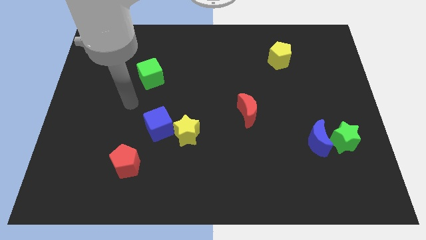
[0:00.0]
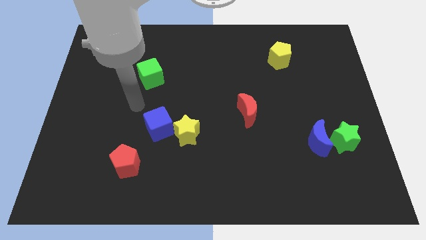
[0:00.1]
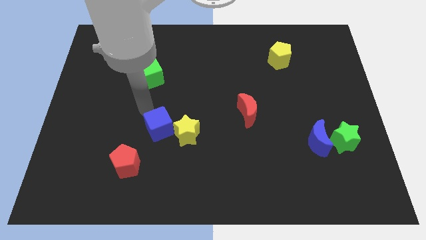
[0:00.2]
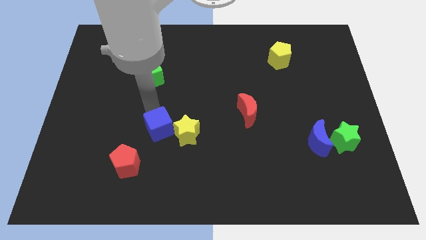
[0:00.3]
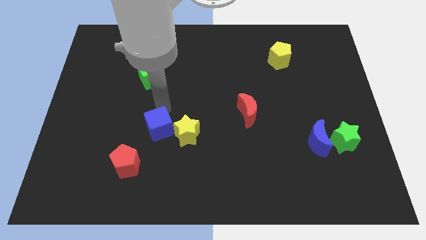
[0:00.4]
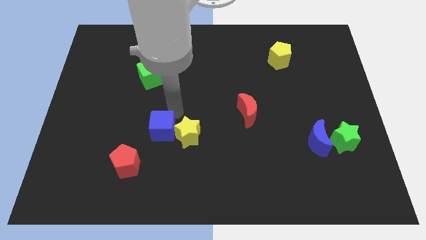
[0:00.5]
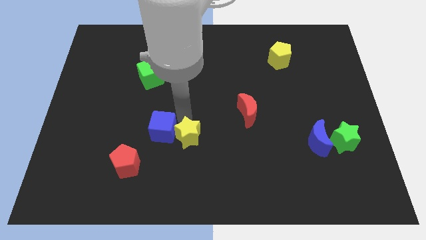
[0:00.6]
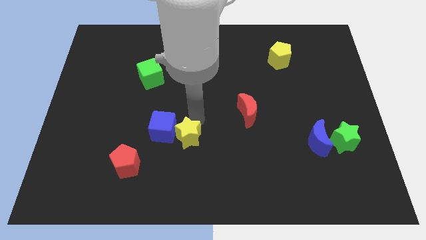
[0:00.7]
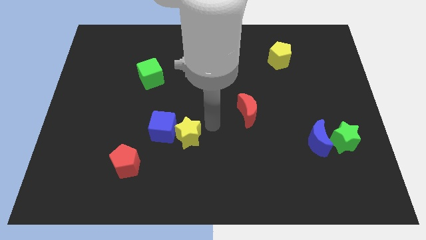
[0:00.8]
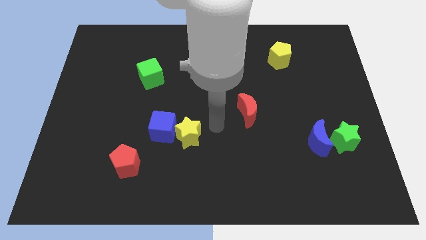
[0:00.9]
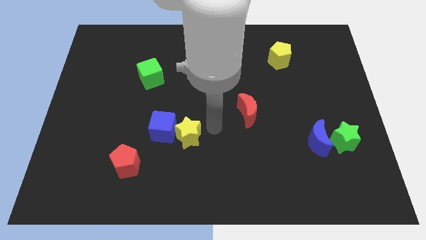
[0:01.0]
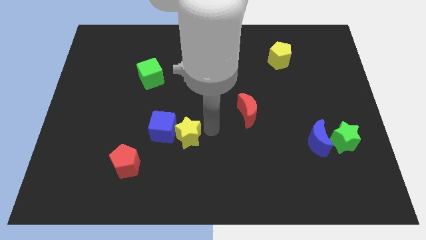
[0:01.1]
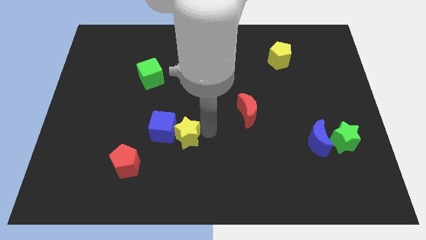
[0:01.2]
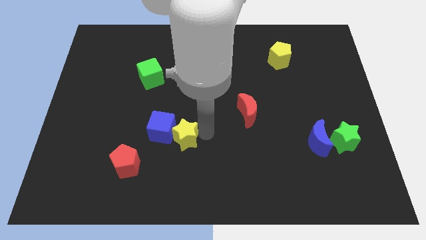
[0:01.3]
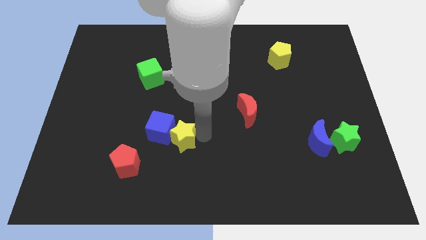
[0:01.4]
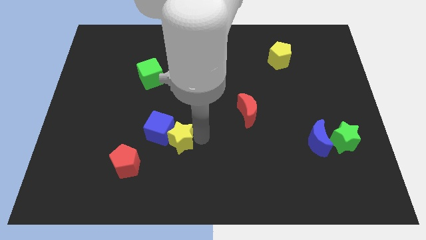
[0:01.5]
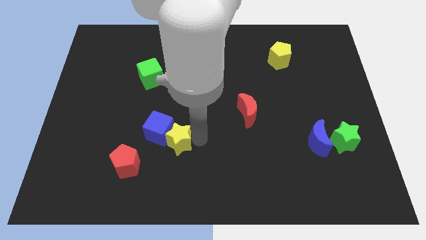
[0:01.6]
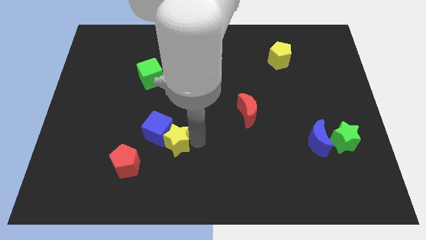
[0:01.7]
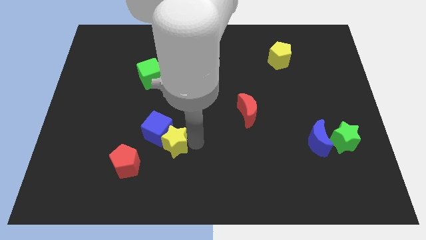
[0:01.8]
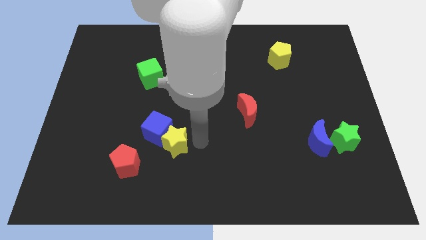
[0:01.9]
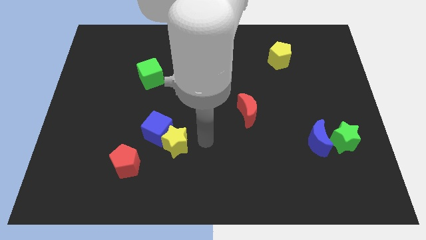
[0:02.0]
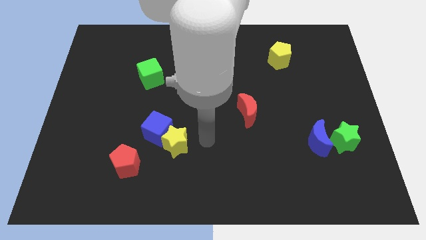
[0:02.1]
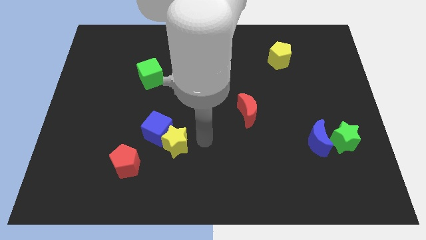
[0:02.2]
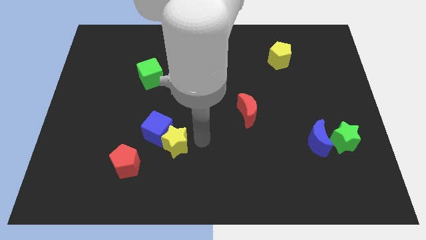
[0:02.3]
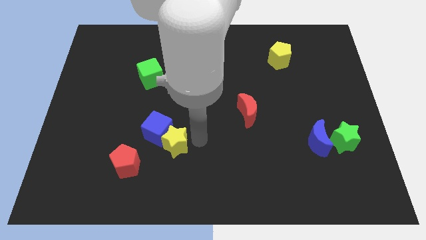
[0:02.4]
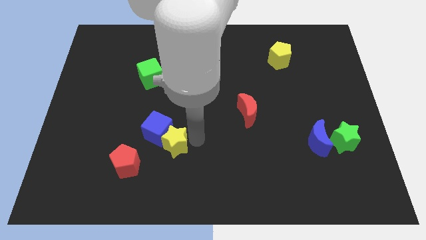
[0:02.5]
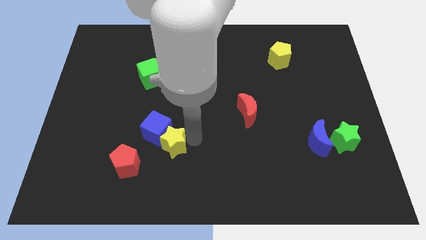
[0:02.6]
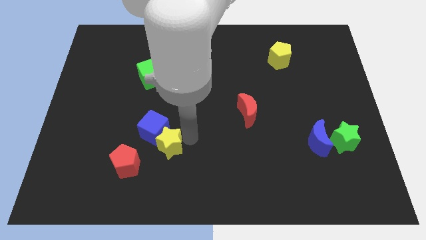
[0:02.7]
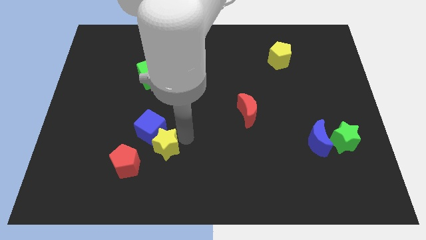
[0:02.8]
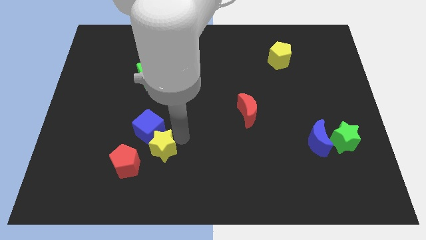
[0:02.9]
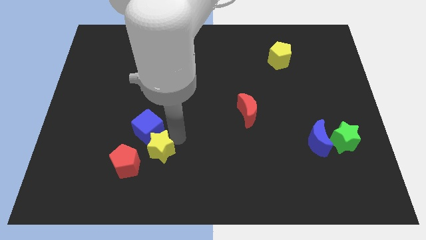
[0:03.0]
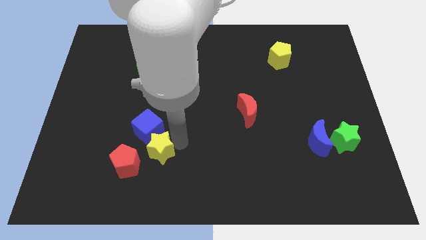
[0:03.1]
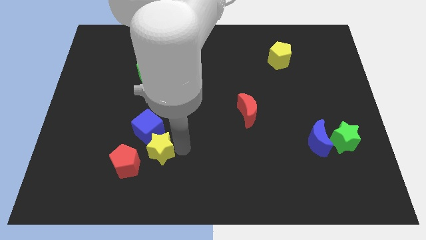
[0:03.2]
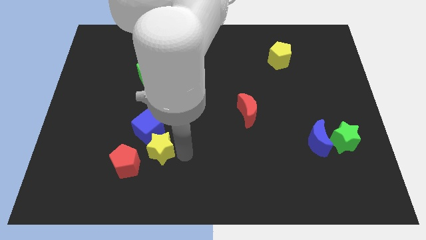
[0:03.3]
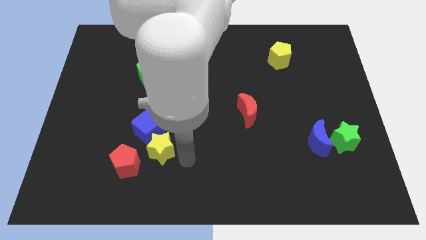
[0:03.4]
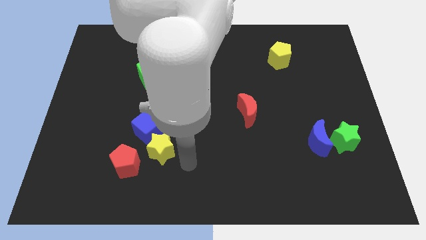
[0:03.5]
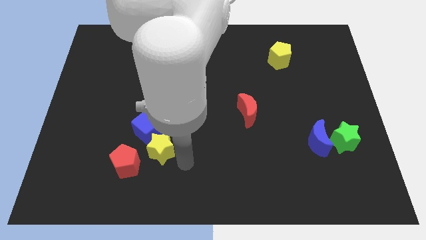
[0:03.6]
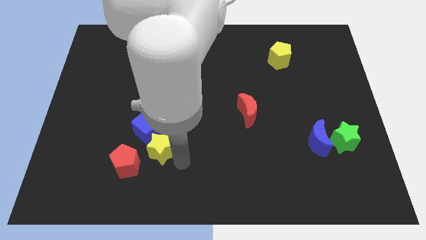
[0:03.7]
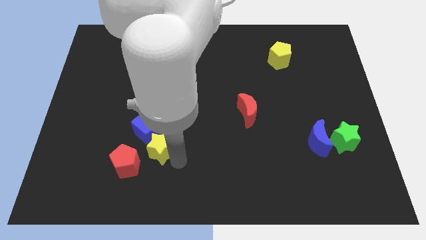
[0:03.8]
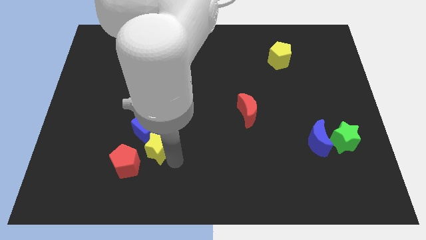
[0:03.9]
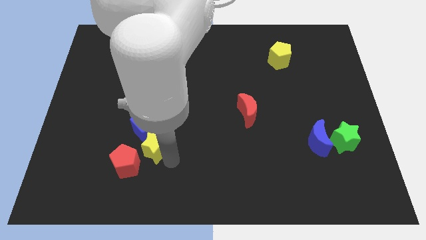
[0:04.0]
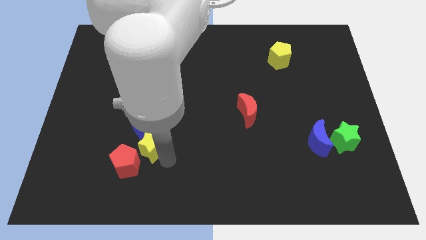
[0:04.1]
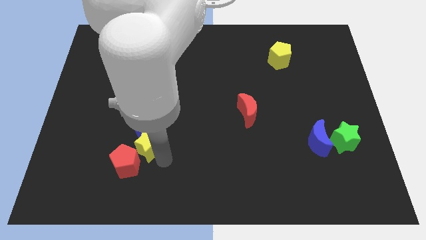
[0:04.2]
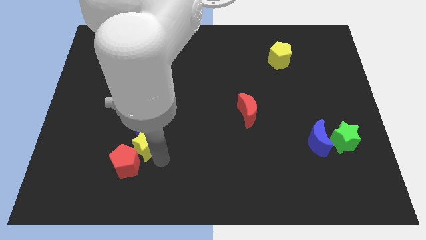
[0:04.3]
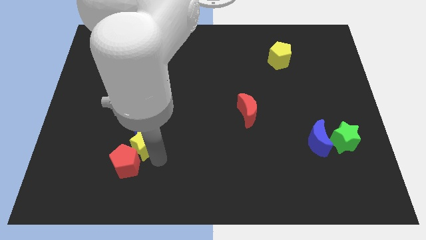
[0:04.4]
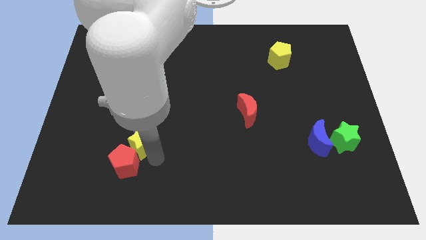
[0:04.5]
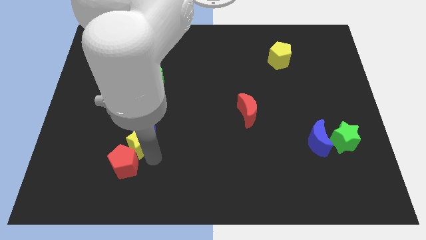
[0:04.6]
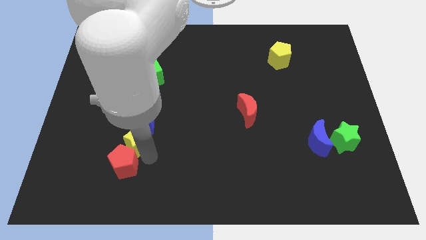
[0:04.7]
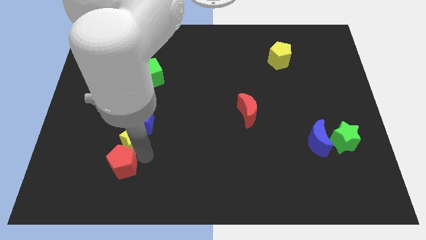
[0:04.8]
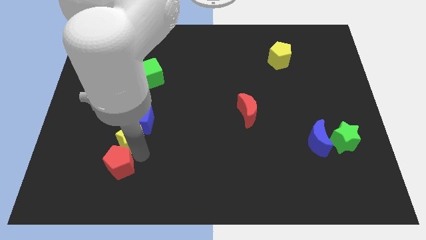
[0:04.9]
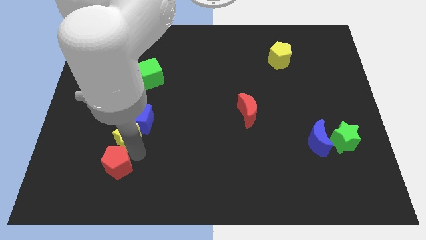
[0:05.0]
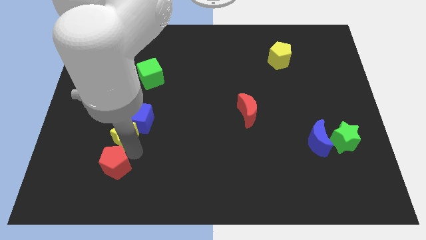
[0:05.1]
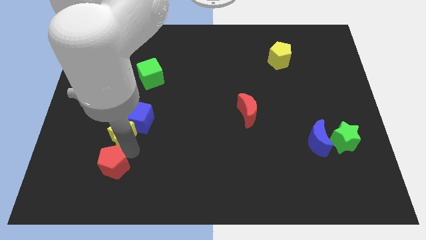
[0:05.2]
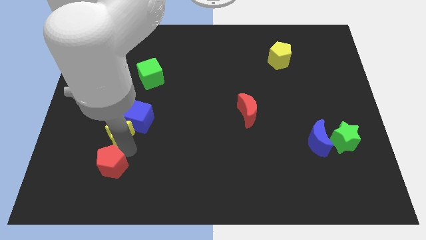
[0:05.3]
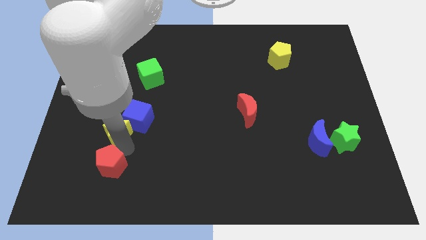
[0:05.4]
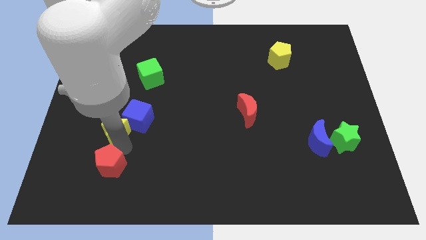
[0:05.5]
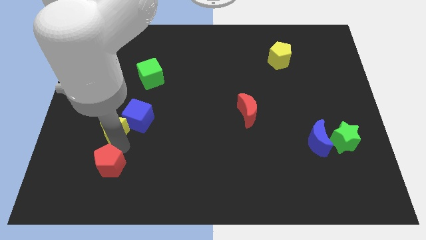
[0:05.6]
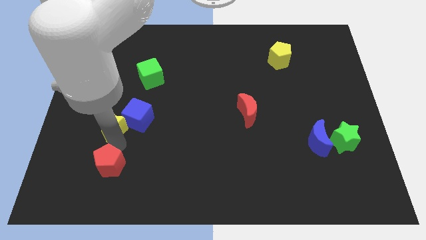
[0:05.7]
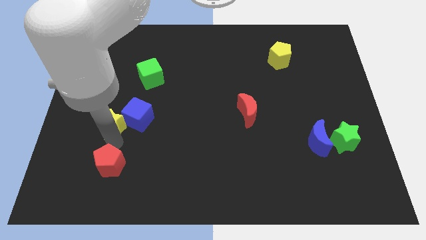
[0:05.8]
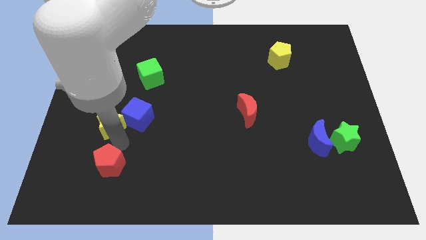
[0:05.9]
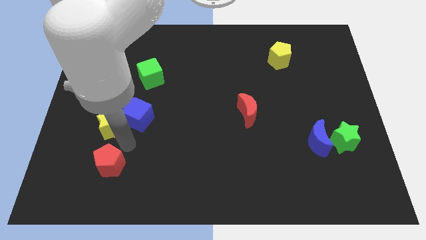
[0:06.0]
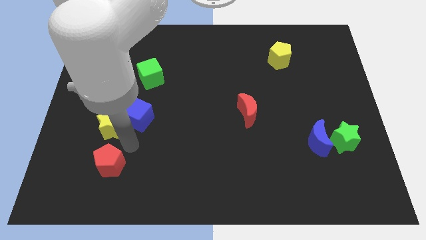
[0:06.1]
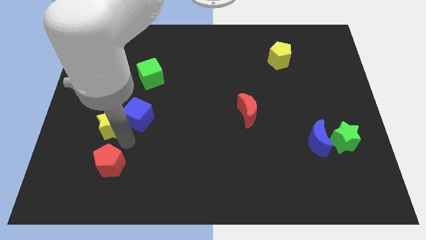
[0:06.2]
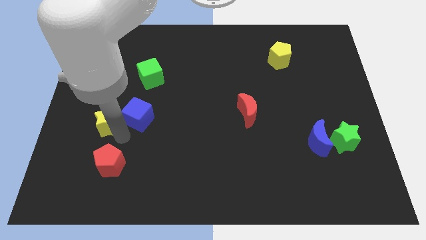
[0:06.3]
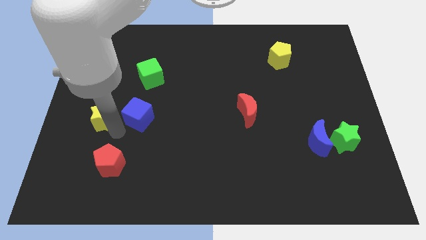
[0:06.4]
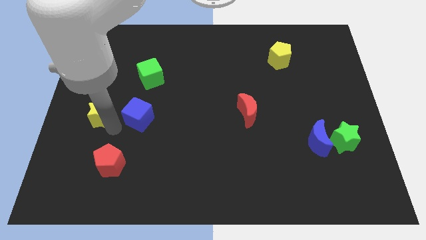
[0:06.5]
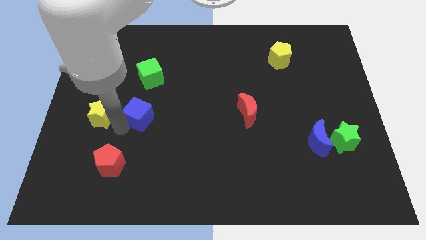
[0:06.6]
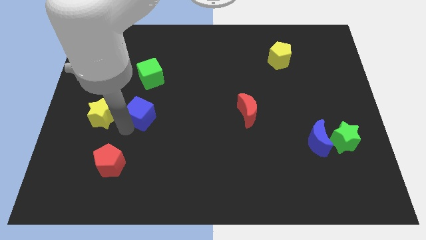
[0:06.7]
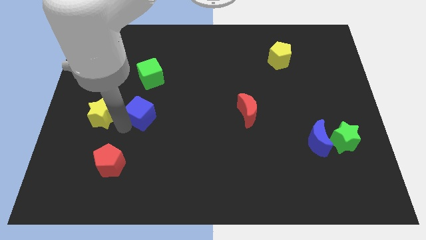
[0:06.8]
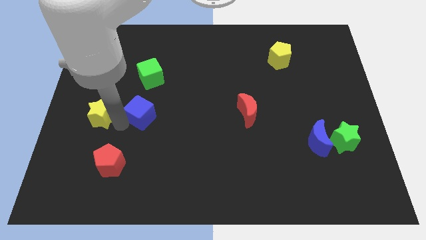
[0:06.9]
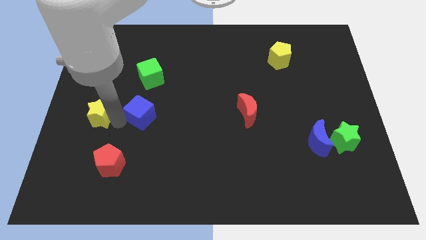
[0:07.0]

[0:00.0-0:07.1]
push the yellow star to the left side of the board

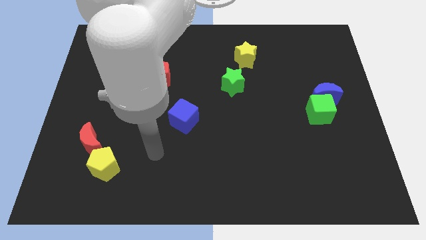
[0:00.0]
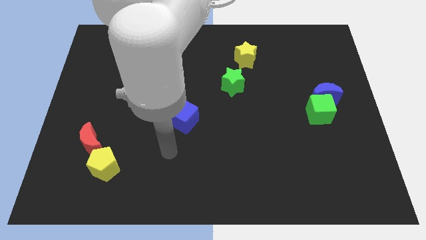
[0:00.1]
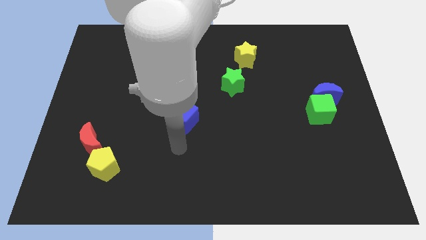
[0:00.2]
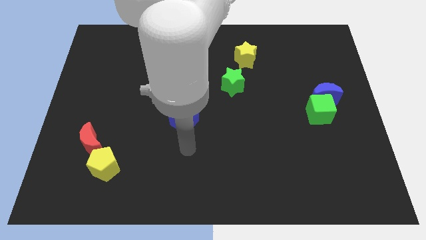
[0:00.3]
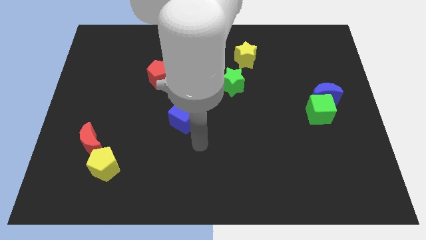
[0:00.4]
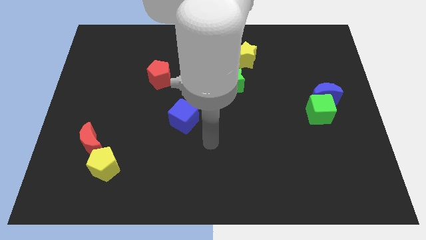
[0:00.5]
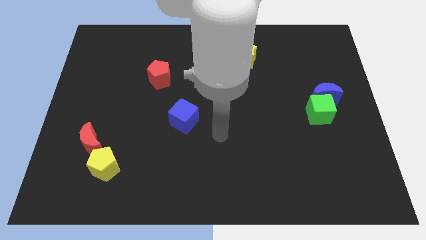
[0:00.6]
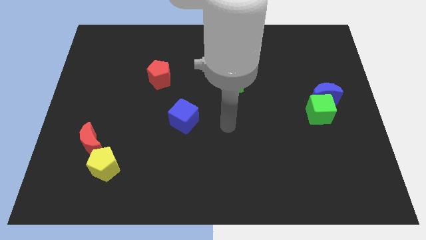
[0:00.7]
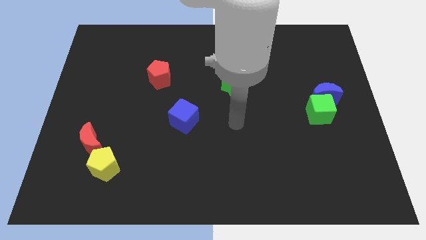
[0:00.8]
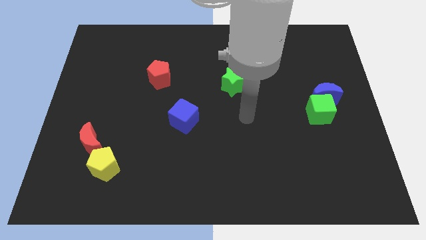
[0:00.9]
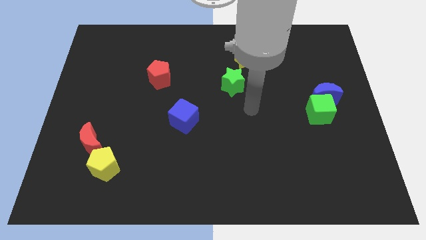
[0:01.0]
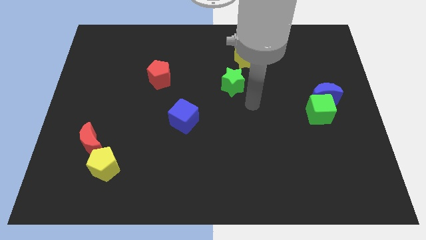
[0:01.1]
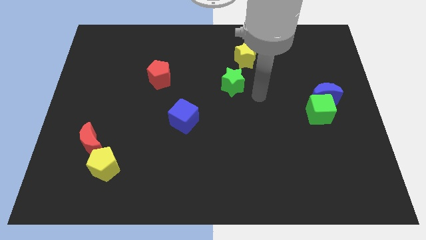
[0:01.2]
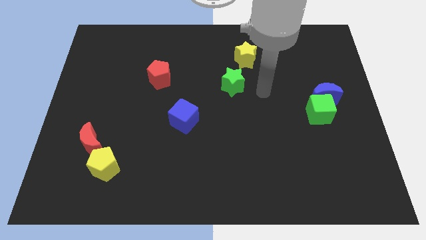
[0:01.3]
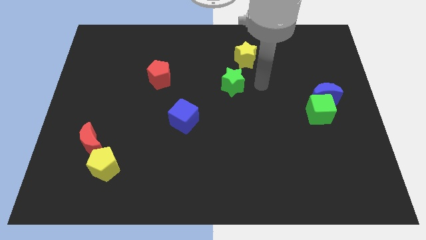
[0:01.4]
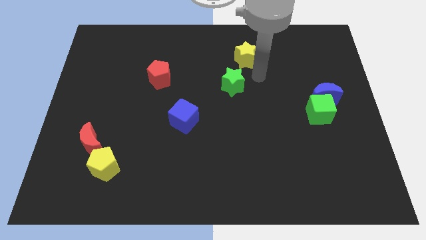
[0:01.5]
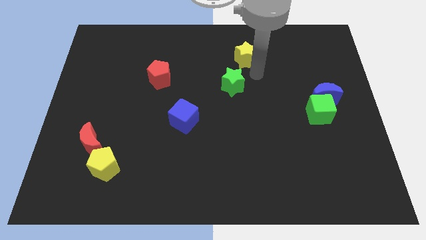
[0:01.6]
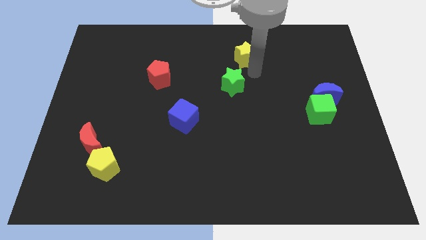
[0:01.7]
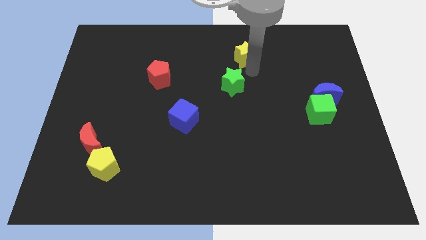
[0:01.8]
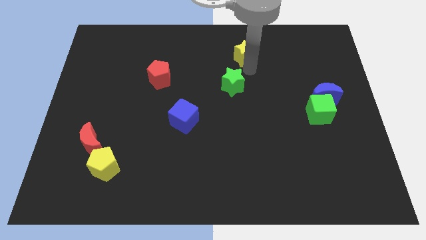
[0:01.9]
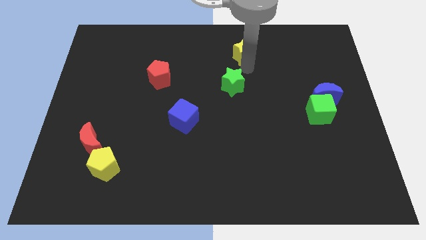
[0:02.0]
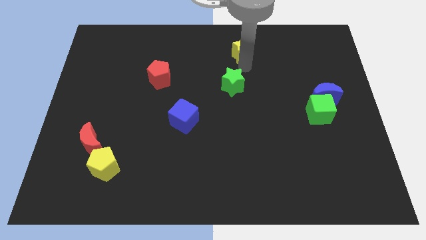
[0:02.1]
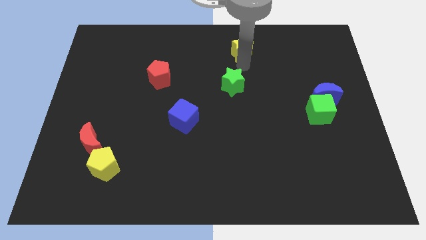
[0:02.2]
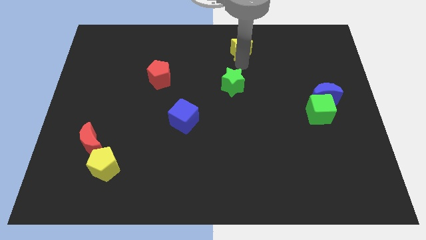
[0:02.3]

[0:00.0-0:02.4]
move the yellow star to the towards your base
